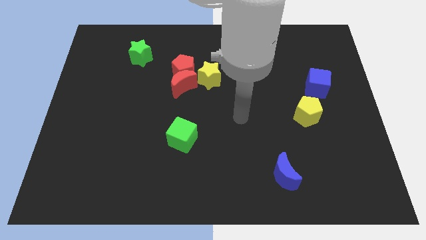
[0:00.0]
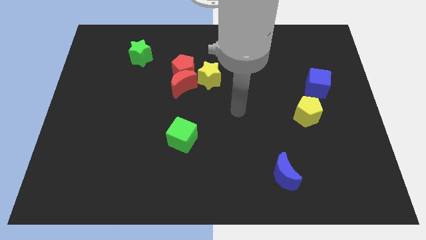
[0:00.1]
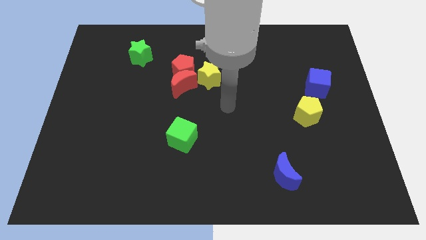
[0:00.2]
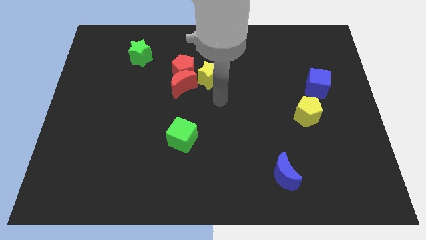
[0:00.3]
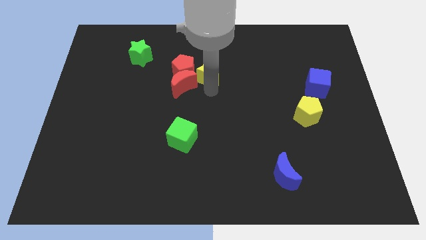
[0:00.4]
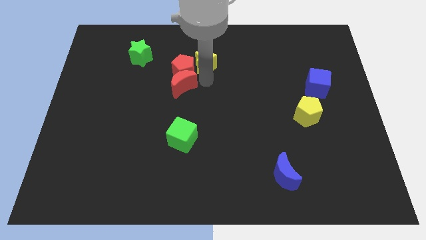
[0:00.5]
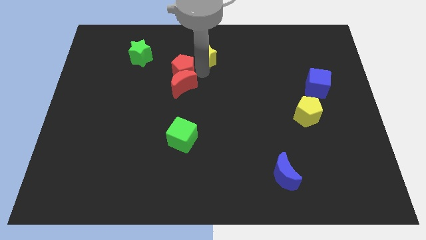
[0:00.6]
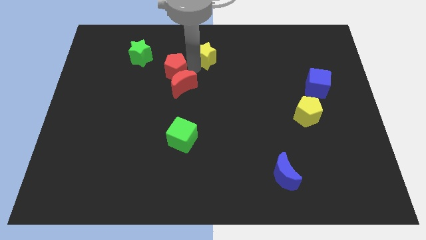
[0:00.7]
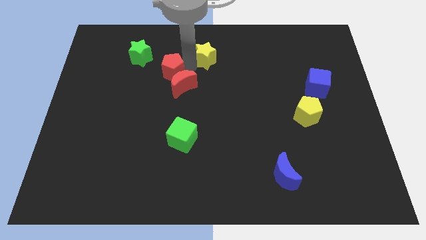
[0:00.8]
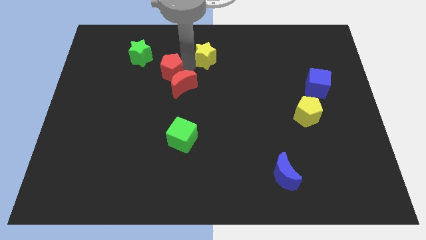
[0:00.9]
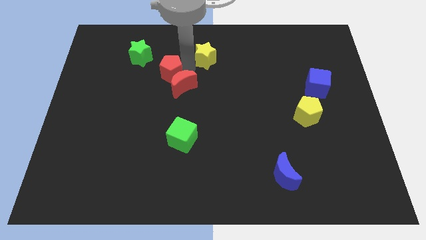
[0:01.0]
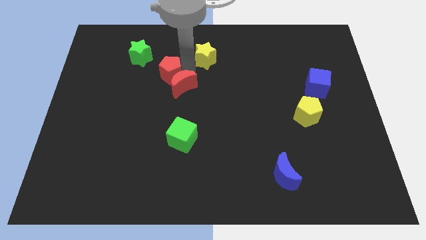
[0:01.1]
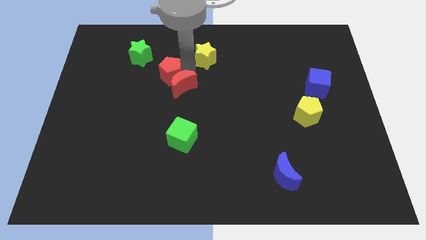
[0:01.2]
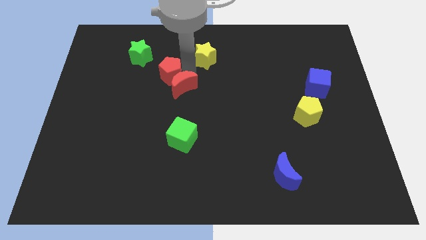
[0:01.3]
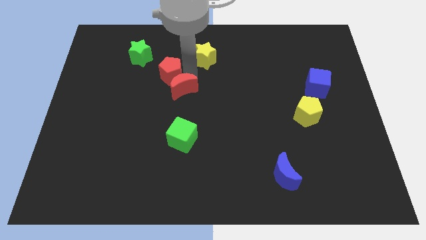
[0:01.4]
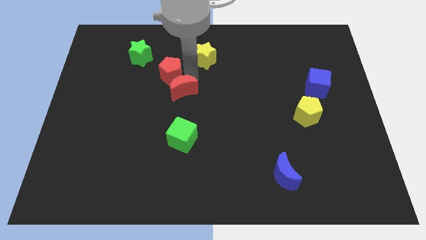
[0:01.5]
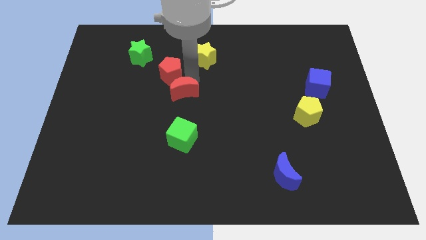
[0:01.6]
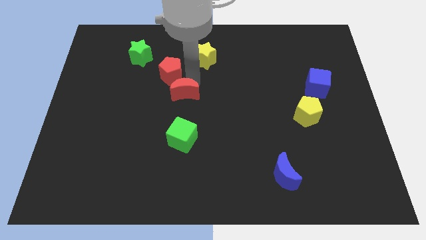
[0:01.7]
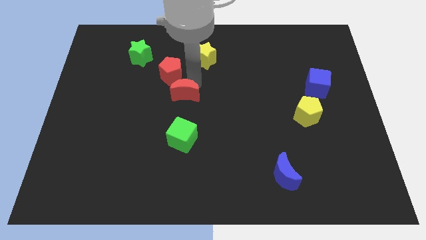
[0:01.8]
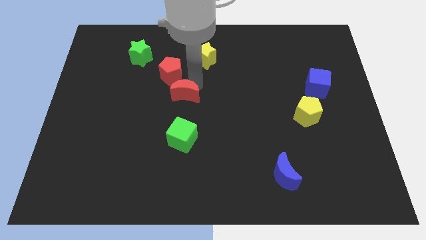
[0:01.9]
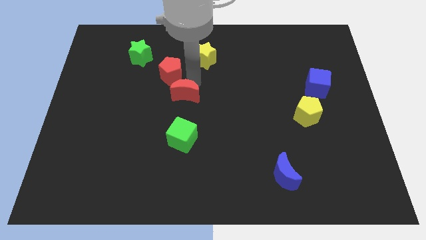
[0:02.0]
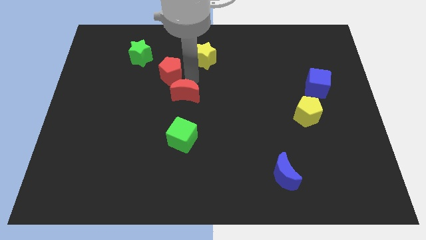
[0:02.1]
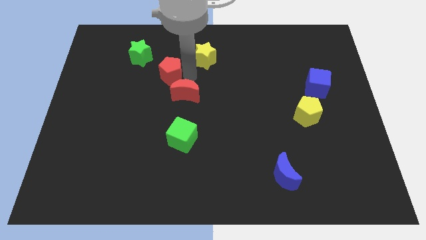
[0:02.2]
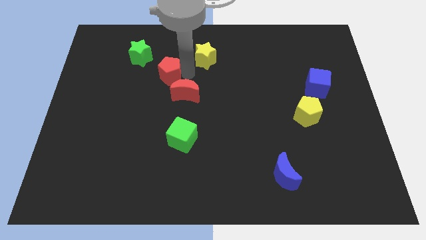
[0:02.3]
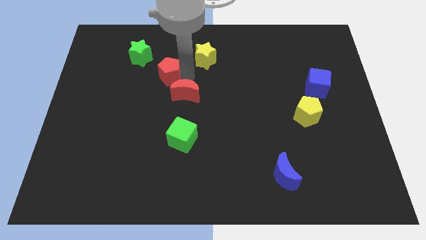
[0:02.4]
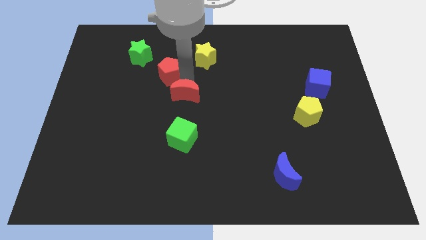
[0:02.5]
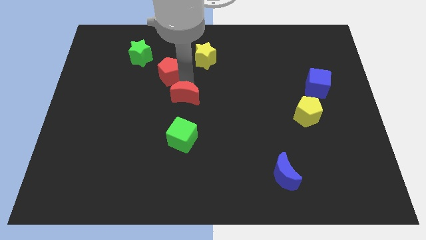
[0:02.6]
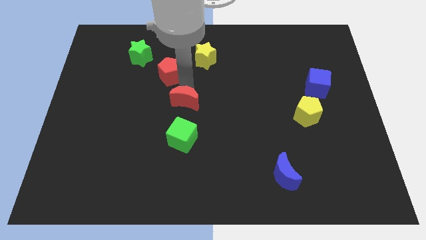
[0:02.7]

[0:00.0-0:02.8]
move the red moon away from the red pentagon and yellow star

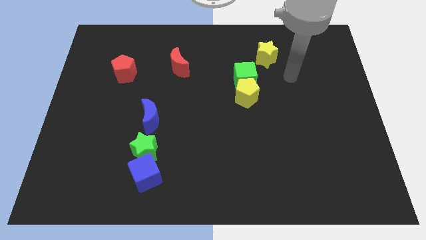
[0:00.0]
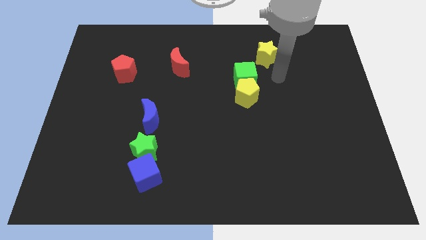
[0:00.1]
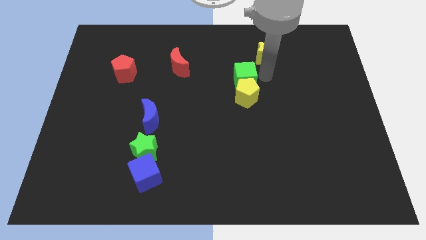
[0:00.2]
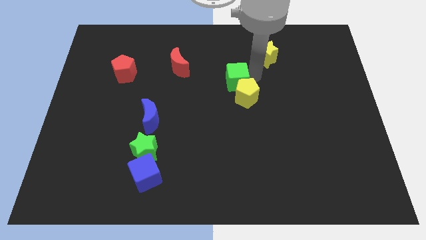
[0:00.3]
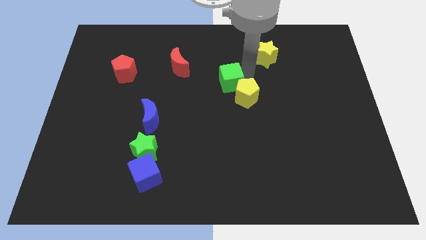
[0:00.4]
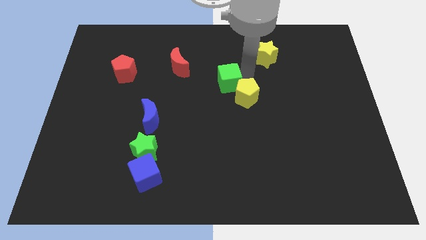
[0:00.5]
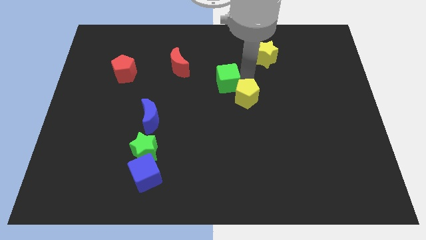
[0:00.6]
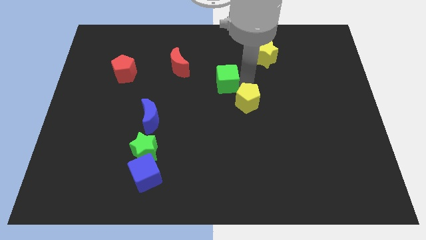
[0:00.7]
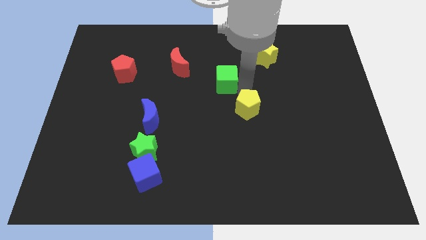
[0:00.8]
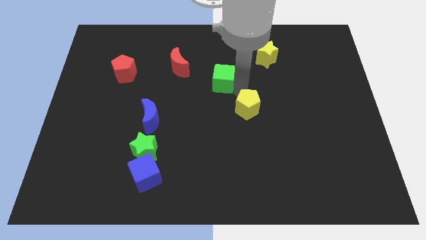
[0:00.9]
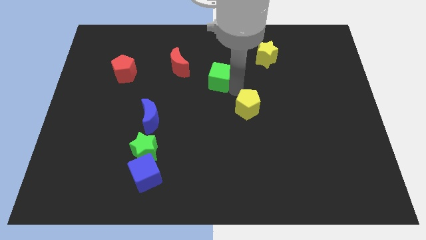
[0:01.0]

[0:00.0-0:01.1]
move the yellow pentagon away from the green cube

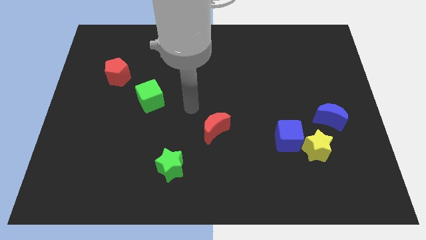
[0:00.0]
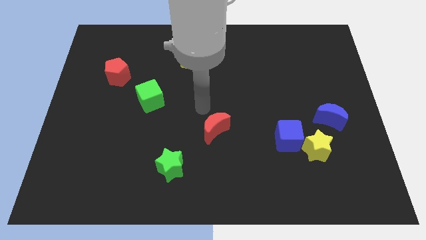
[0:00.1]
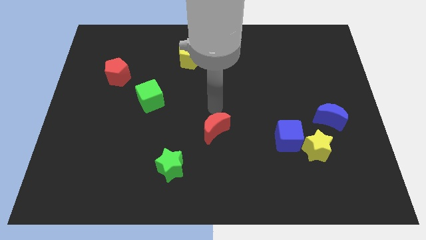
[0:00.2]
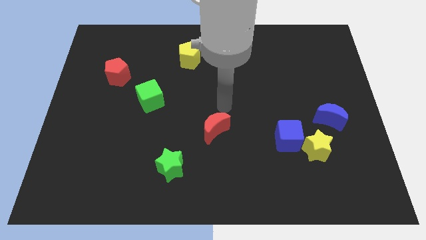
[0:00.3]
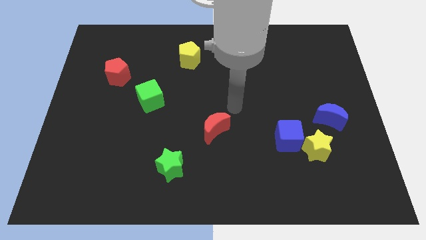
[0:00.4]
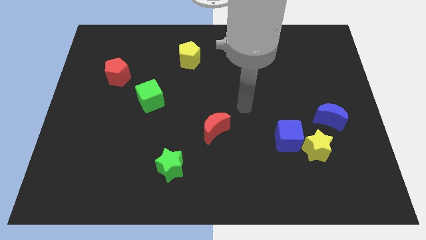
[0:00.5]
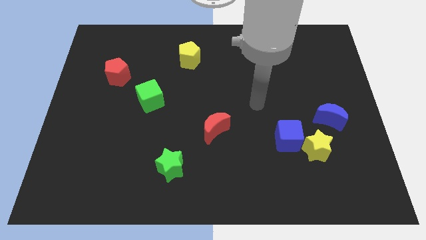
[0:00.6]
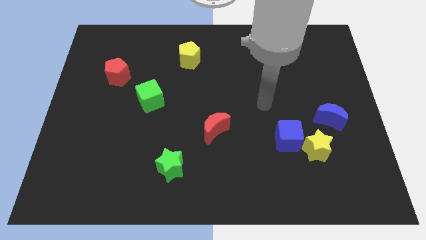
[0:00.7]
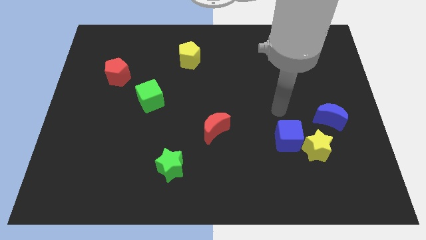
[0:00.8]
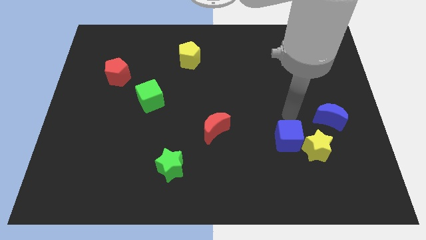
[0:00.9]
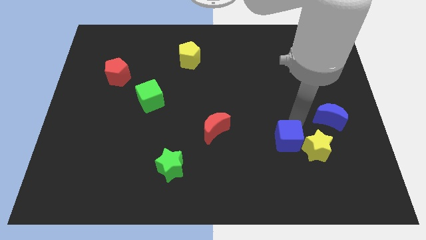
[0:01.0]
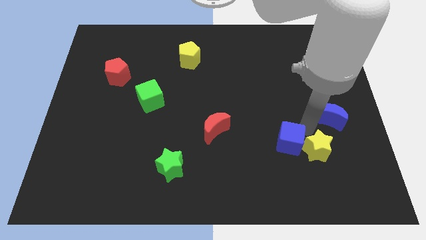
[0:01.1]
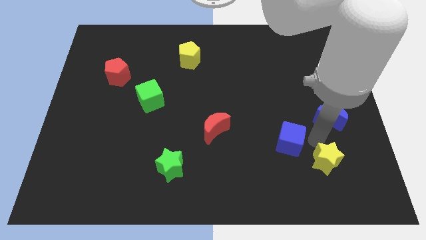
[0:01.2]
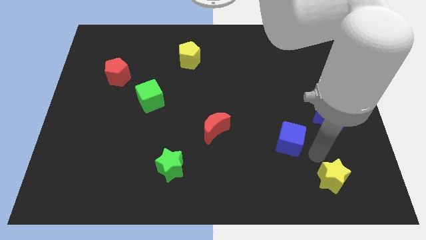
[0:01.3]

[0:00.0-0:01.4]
pull the blue cube apart from the yellow star

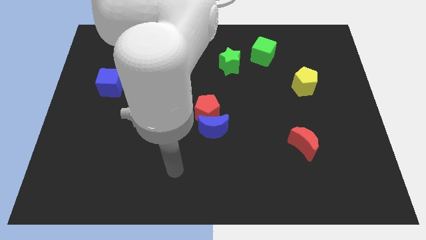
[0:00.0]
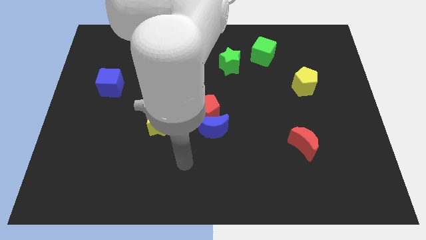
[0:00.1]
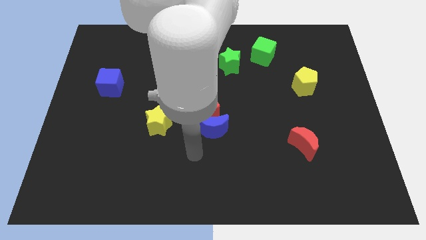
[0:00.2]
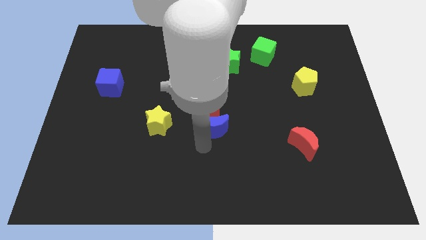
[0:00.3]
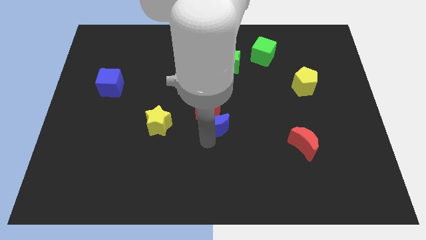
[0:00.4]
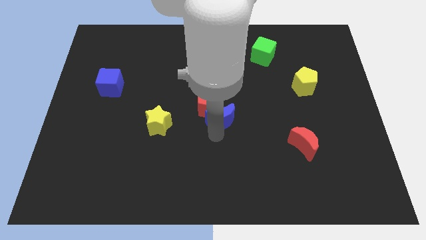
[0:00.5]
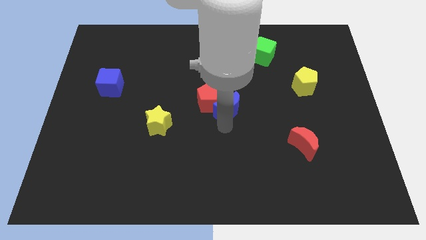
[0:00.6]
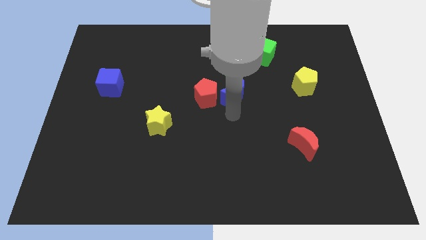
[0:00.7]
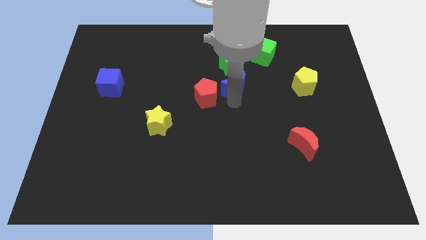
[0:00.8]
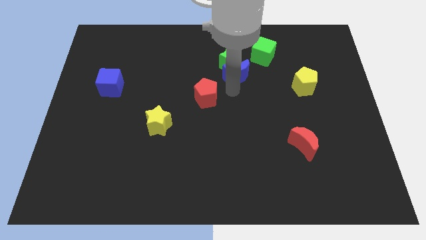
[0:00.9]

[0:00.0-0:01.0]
move the red pentagon away from the blue moon

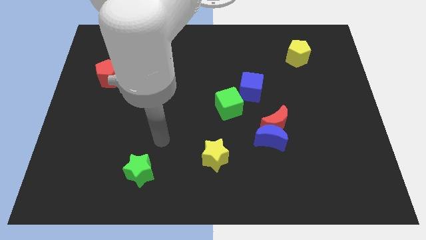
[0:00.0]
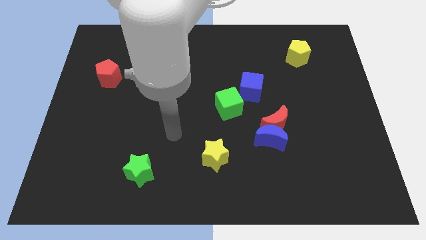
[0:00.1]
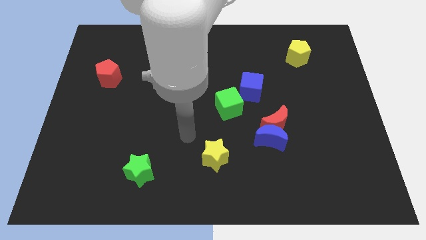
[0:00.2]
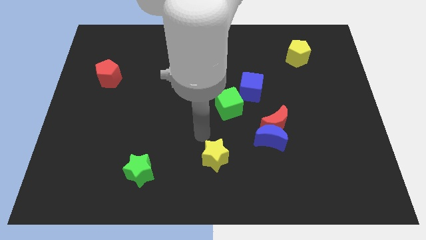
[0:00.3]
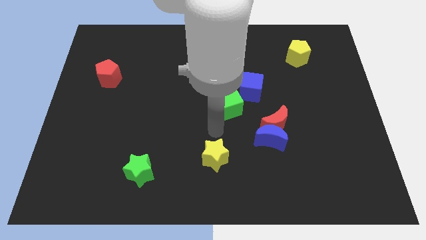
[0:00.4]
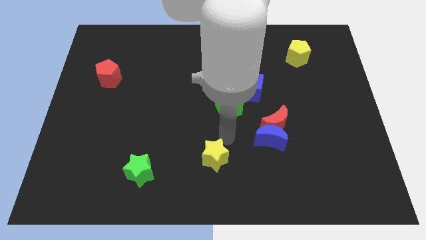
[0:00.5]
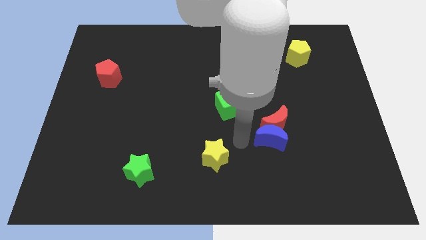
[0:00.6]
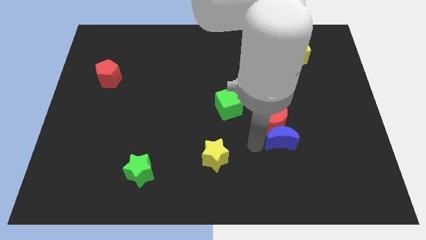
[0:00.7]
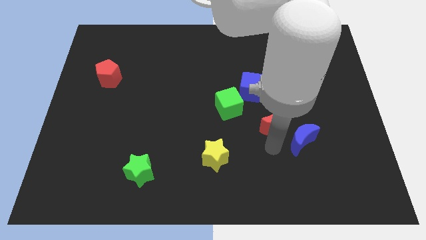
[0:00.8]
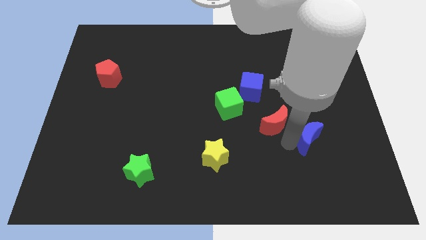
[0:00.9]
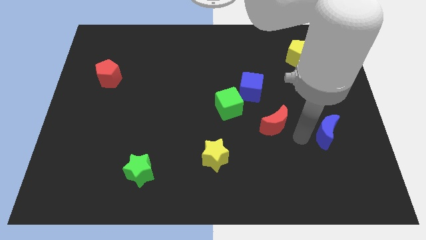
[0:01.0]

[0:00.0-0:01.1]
move the red moon away from the blue moon

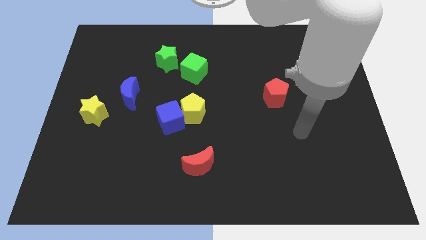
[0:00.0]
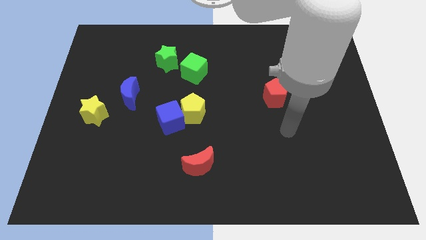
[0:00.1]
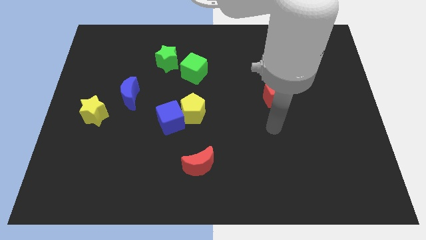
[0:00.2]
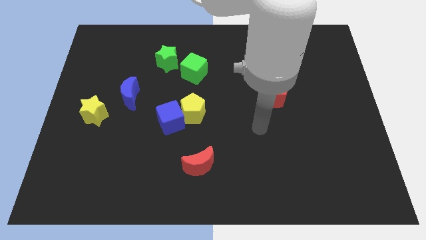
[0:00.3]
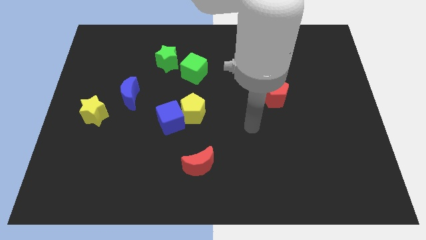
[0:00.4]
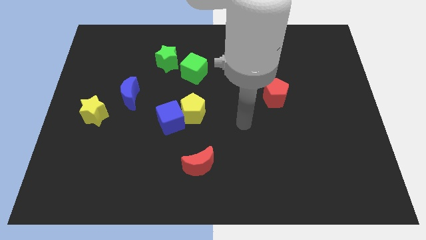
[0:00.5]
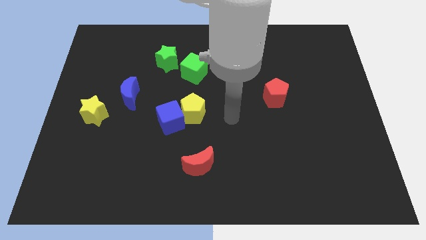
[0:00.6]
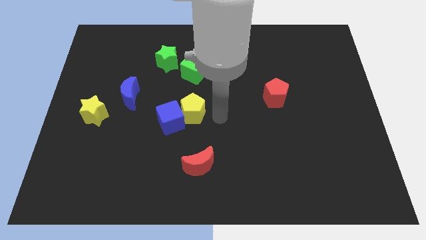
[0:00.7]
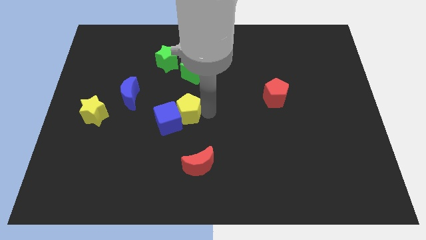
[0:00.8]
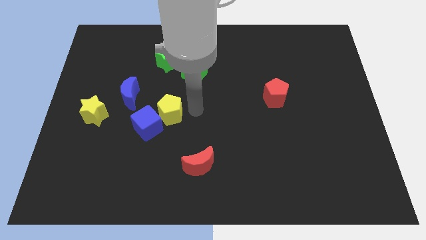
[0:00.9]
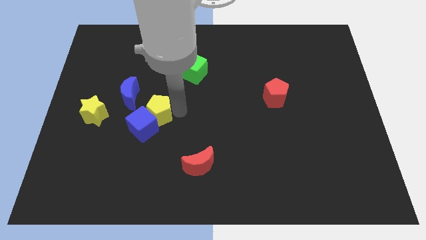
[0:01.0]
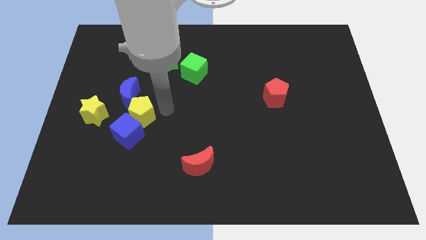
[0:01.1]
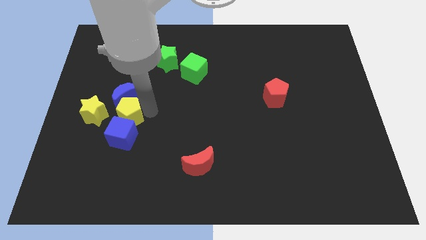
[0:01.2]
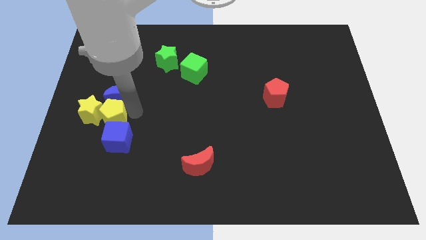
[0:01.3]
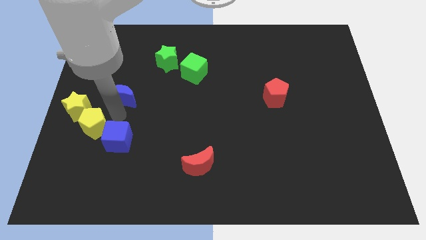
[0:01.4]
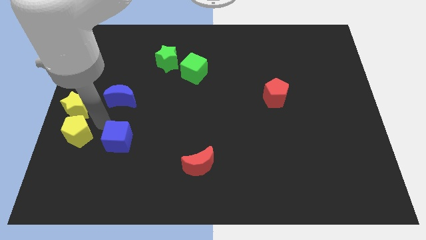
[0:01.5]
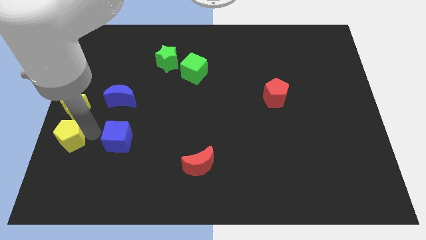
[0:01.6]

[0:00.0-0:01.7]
separate the blue cube from the yellow pentagon

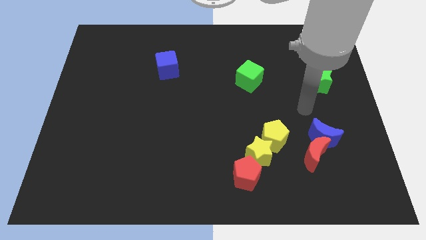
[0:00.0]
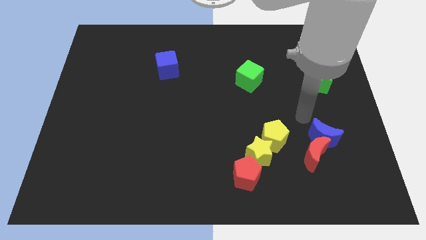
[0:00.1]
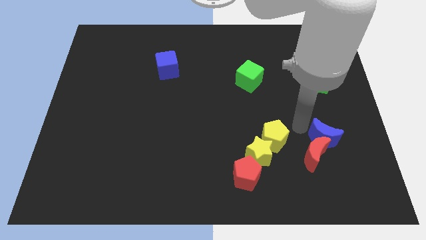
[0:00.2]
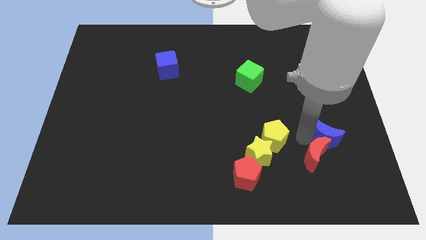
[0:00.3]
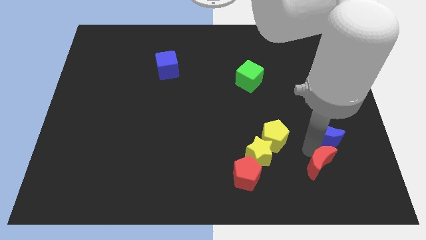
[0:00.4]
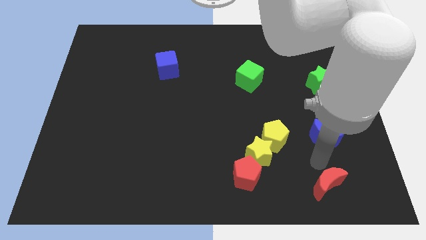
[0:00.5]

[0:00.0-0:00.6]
move the blue moon away from the red moon
